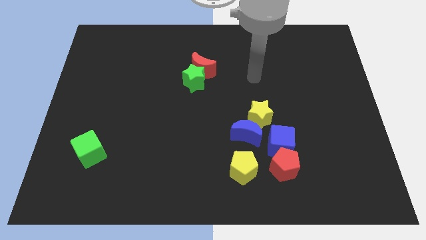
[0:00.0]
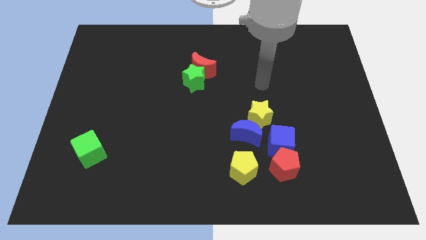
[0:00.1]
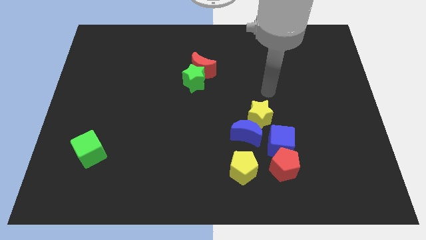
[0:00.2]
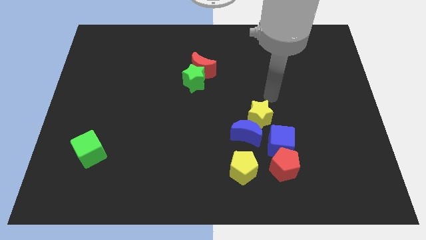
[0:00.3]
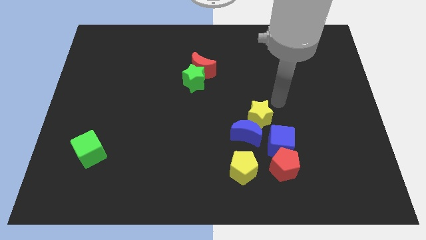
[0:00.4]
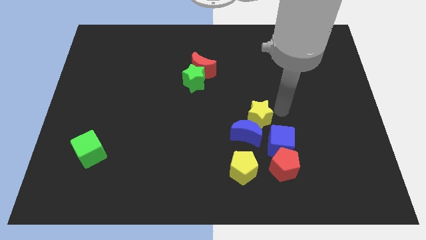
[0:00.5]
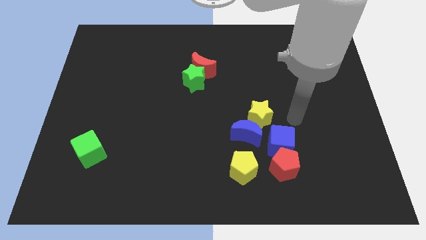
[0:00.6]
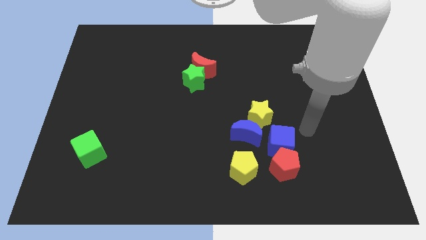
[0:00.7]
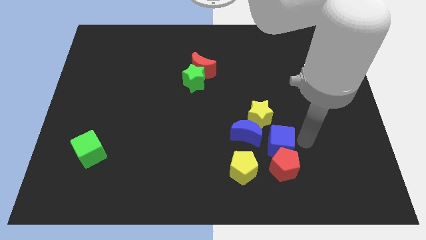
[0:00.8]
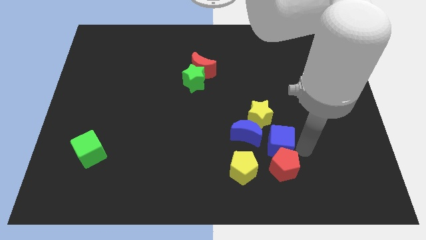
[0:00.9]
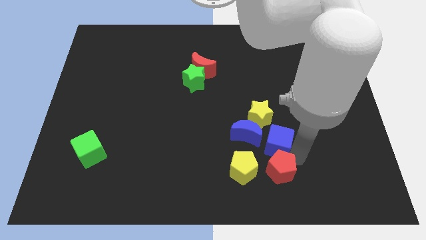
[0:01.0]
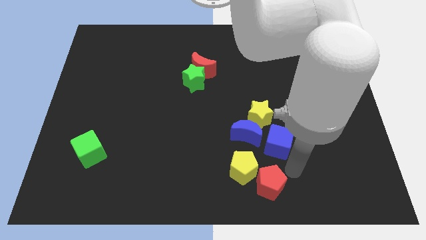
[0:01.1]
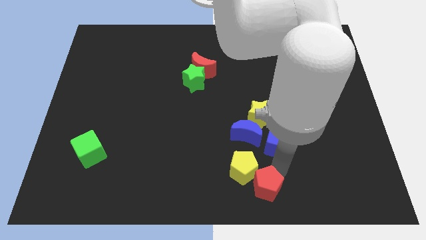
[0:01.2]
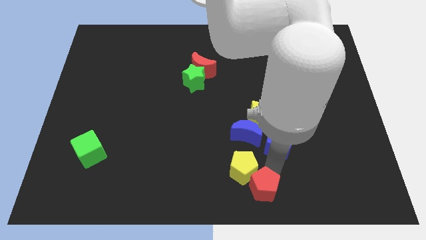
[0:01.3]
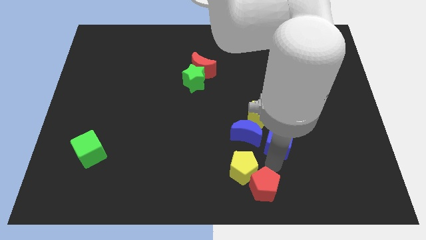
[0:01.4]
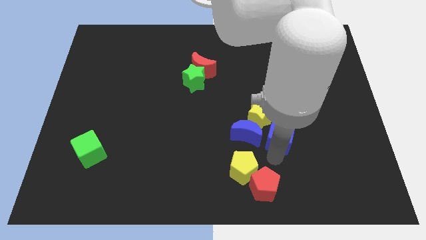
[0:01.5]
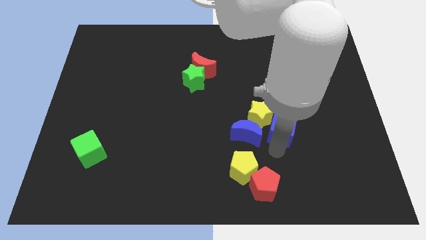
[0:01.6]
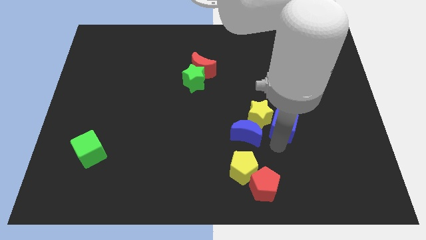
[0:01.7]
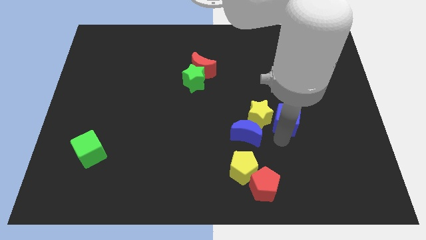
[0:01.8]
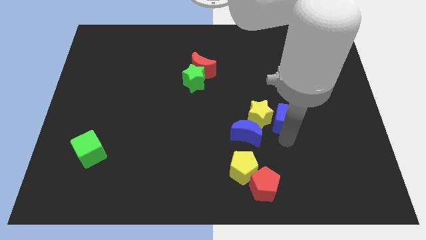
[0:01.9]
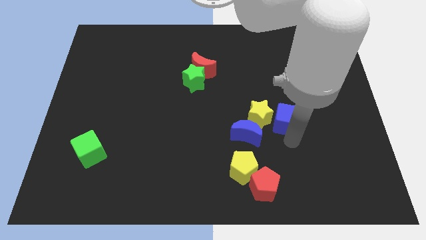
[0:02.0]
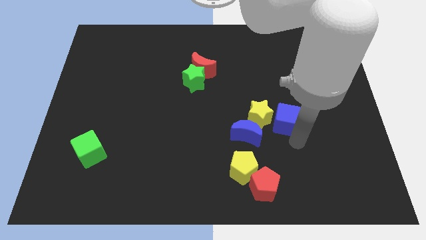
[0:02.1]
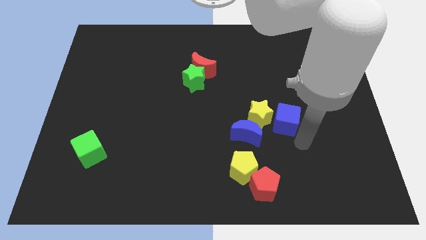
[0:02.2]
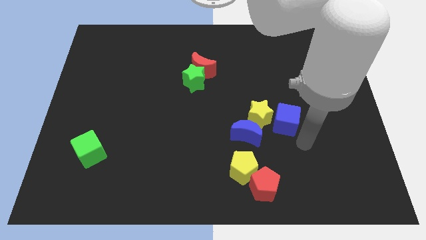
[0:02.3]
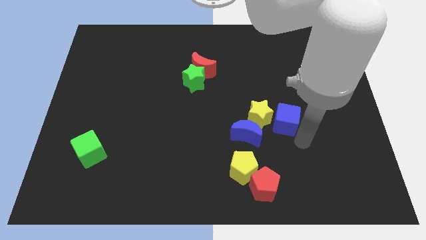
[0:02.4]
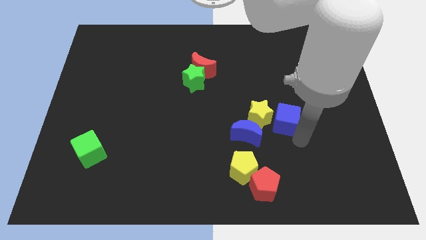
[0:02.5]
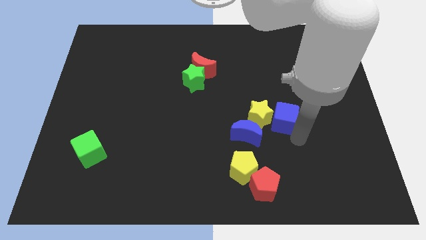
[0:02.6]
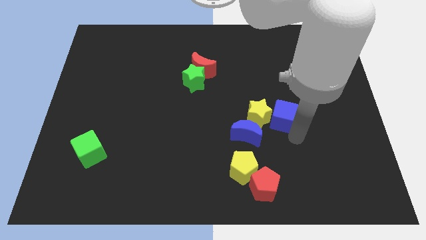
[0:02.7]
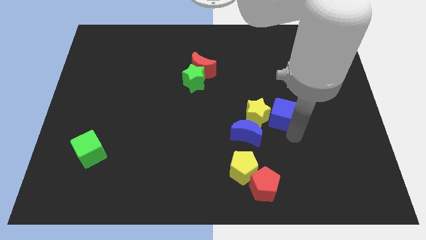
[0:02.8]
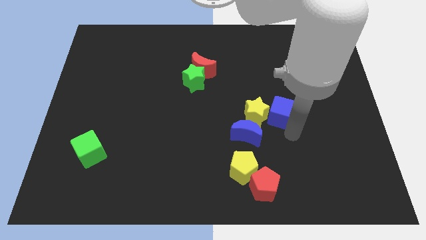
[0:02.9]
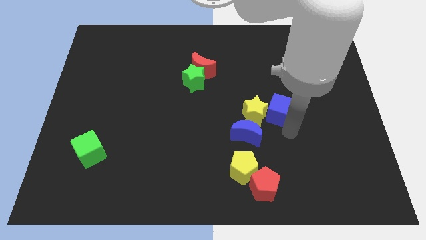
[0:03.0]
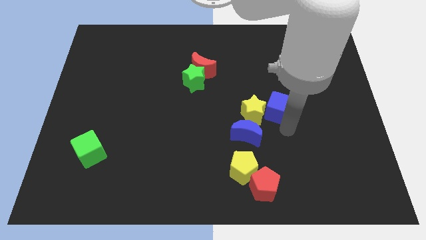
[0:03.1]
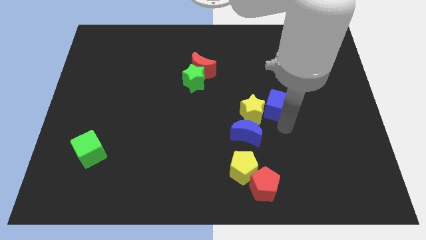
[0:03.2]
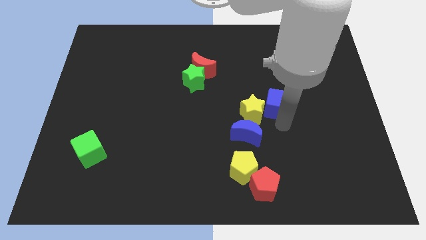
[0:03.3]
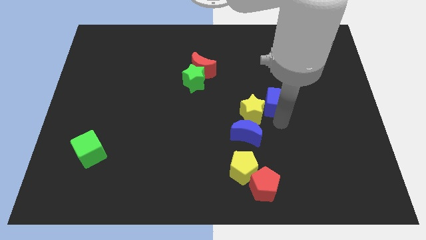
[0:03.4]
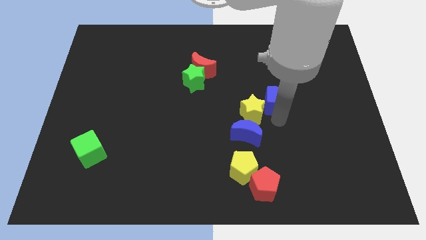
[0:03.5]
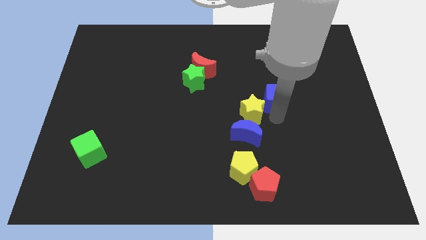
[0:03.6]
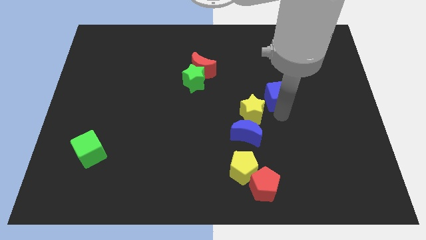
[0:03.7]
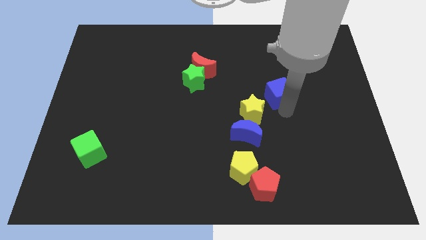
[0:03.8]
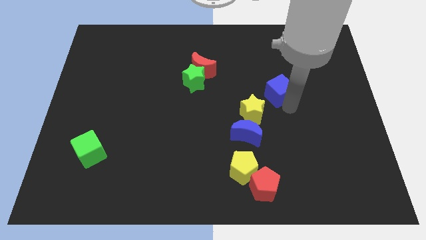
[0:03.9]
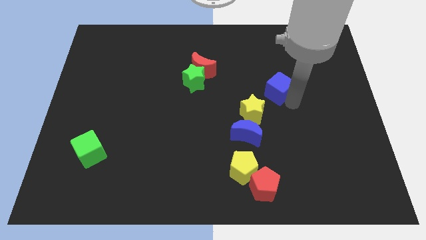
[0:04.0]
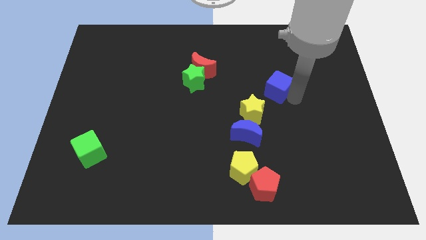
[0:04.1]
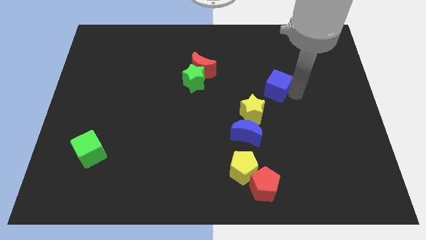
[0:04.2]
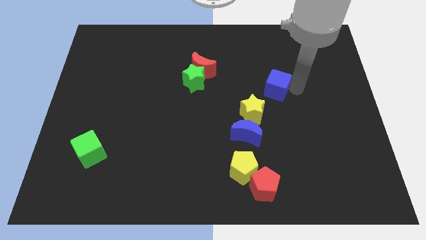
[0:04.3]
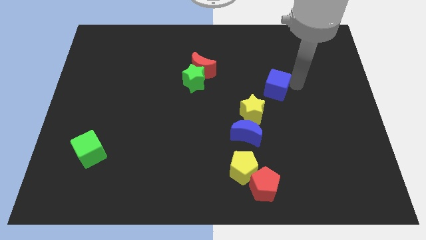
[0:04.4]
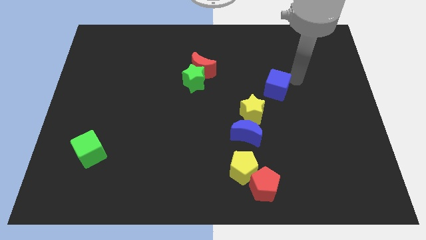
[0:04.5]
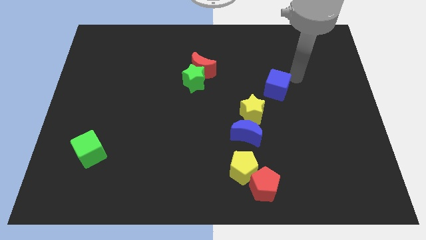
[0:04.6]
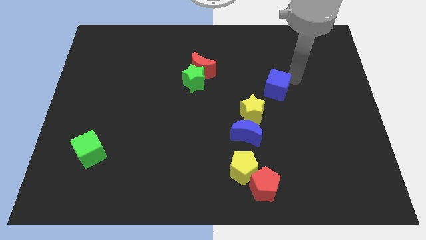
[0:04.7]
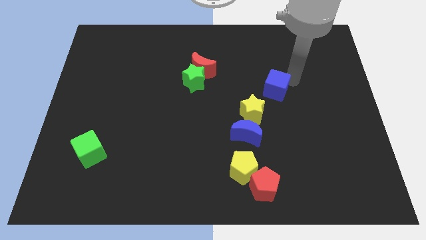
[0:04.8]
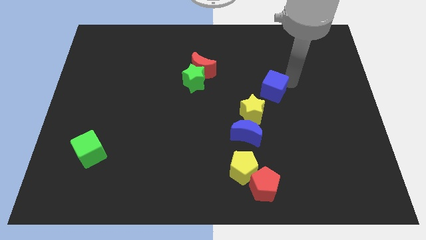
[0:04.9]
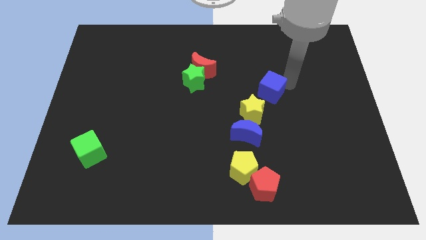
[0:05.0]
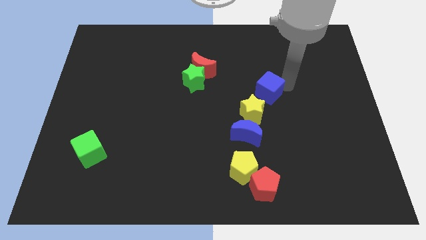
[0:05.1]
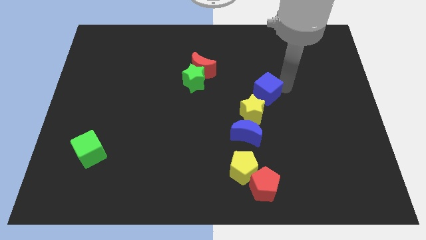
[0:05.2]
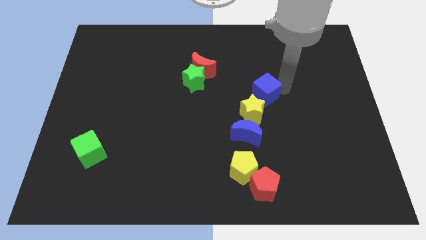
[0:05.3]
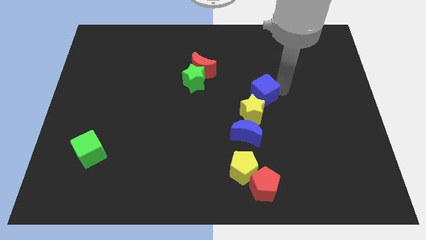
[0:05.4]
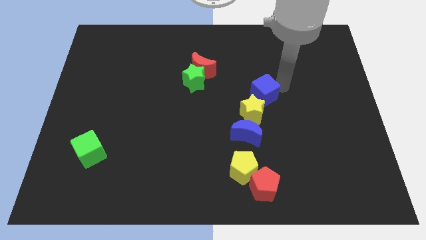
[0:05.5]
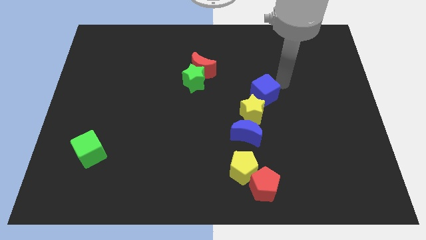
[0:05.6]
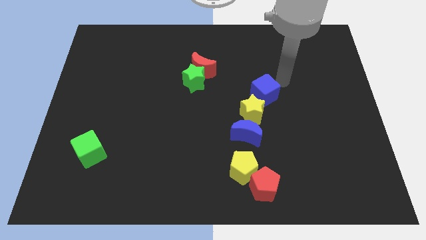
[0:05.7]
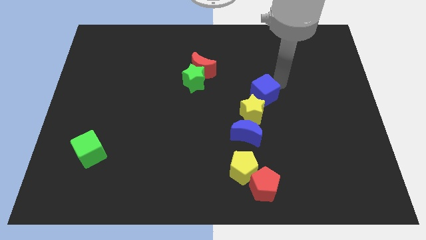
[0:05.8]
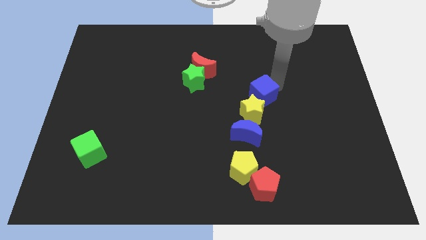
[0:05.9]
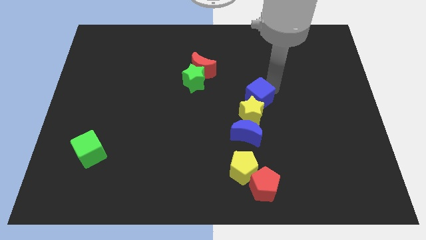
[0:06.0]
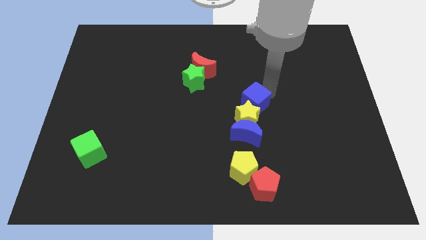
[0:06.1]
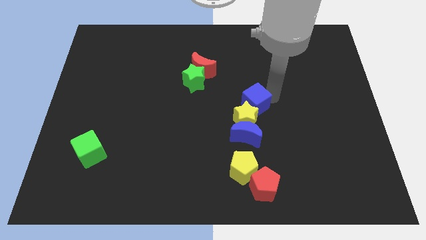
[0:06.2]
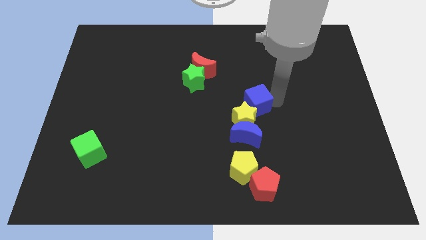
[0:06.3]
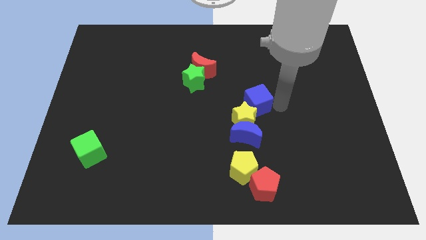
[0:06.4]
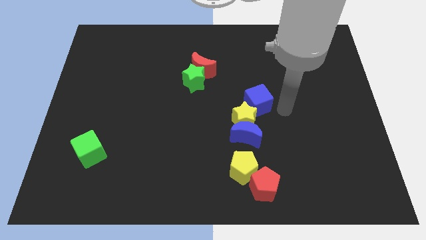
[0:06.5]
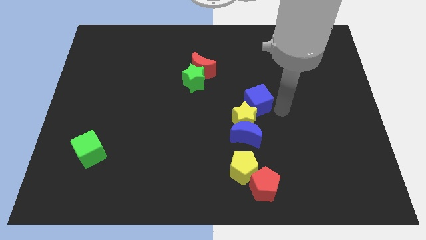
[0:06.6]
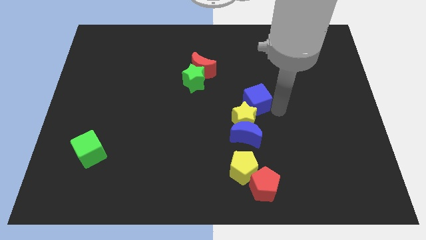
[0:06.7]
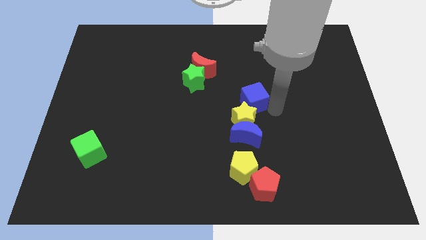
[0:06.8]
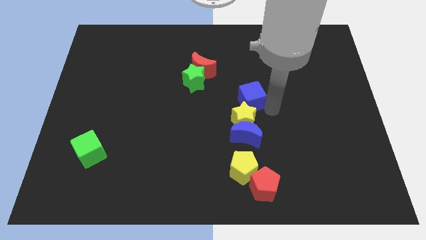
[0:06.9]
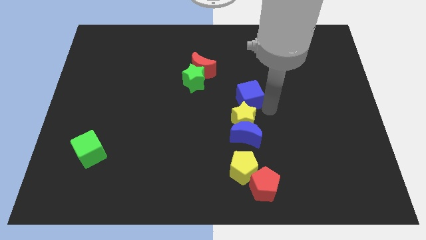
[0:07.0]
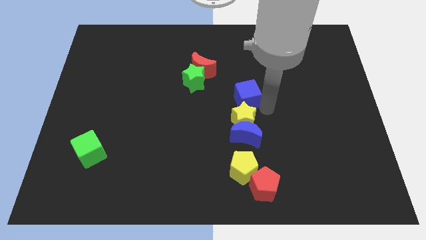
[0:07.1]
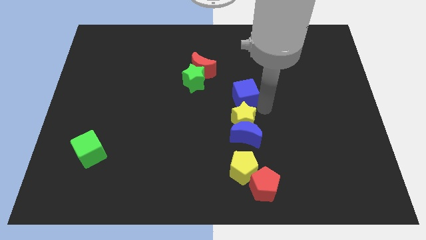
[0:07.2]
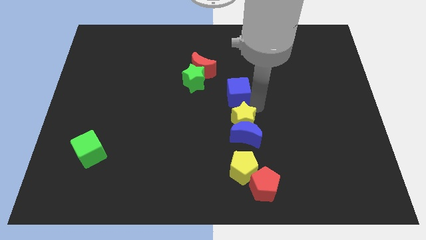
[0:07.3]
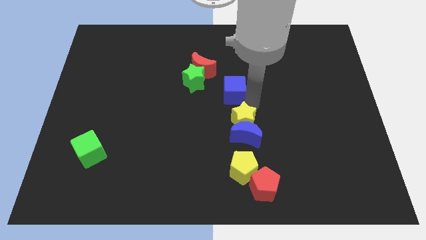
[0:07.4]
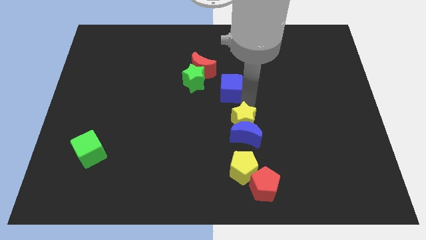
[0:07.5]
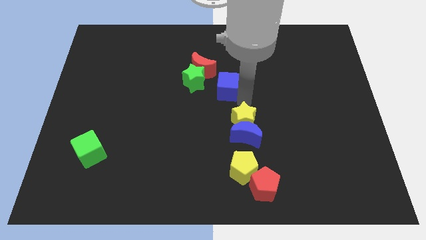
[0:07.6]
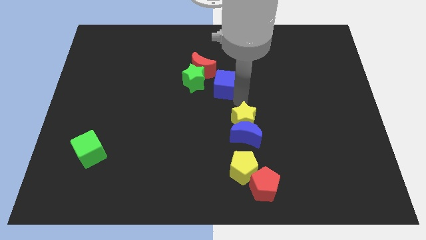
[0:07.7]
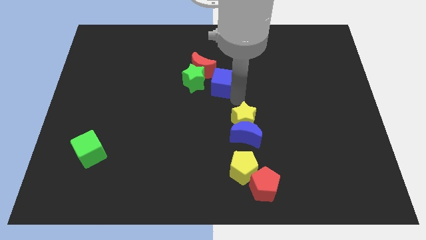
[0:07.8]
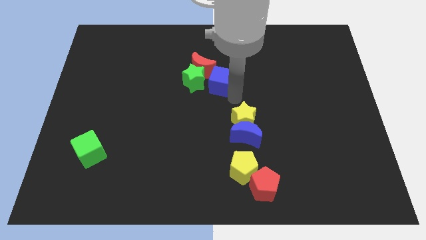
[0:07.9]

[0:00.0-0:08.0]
push the blue cube next to the green star

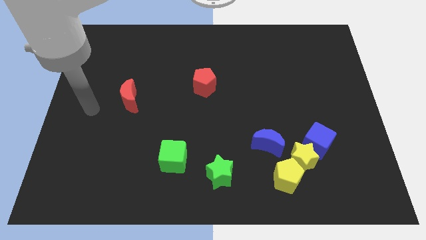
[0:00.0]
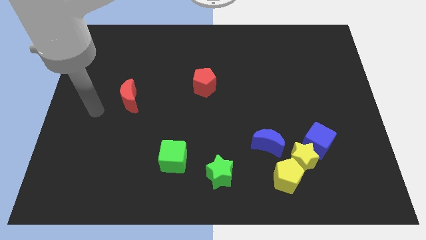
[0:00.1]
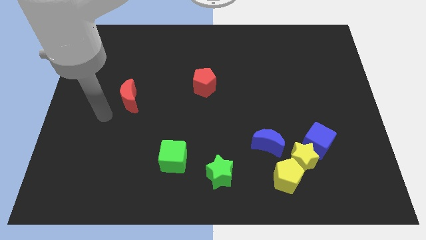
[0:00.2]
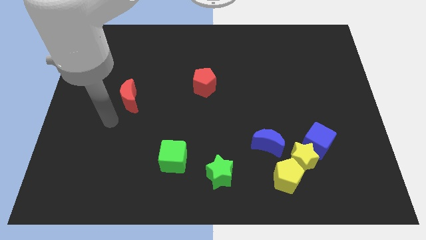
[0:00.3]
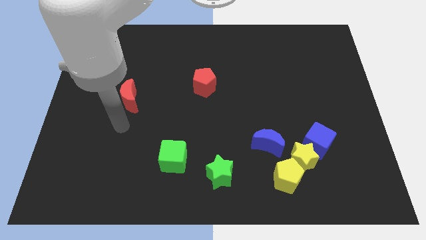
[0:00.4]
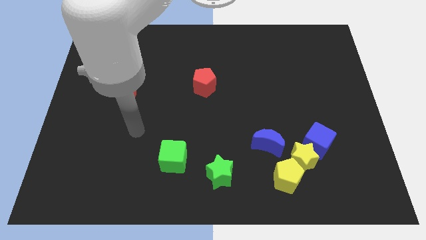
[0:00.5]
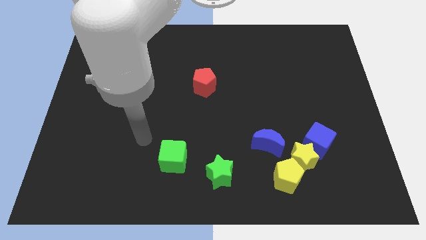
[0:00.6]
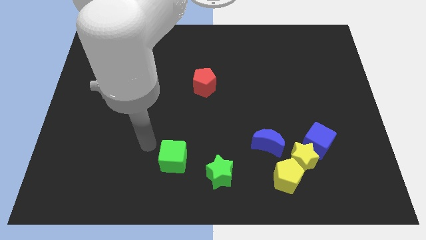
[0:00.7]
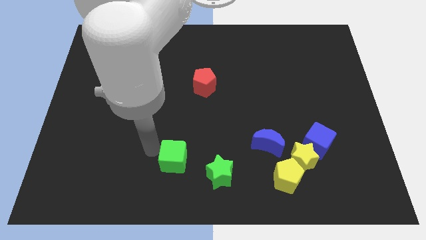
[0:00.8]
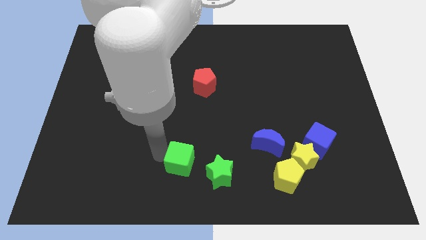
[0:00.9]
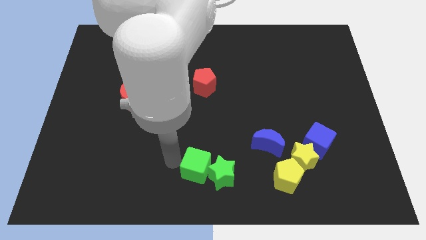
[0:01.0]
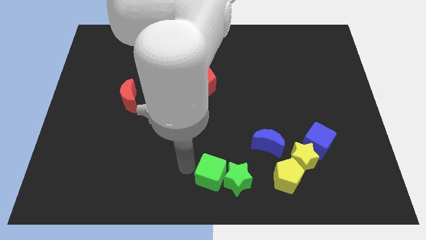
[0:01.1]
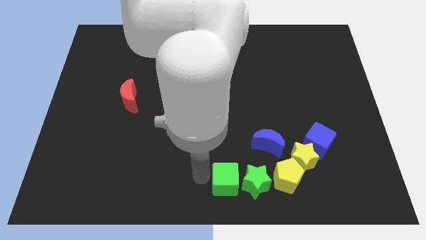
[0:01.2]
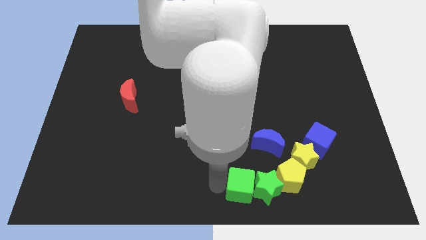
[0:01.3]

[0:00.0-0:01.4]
move the green star towards the yellow pentagon
